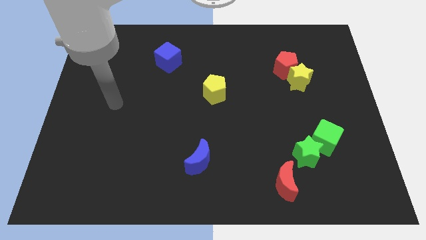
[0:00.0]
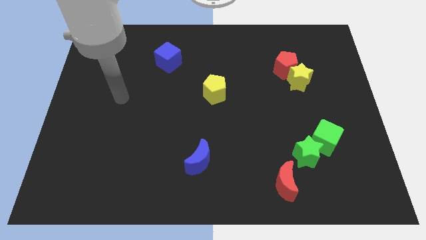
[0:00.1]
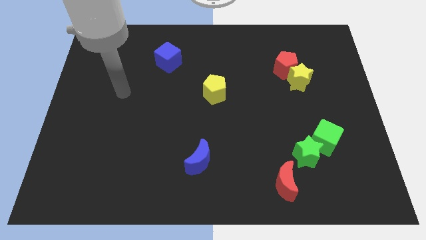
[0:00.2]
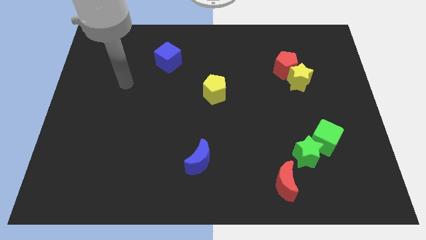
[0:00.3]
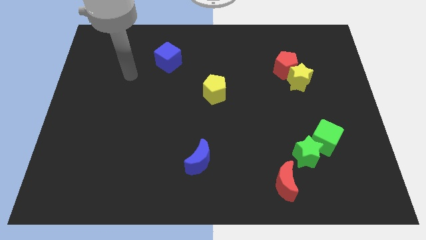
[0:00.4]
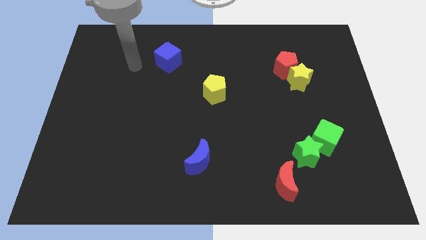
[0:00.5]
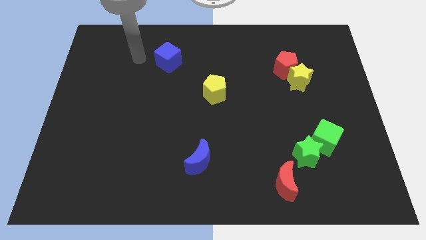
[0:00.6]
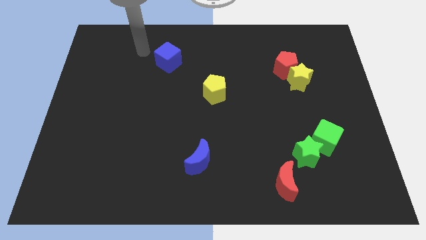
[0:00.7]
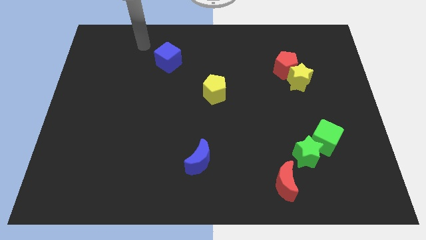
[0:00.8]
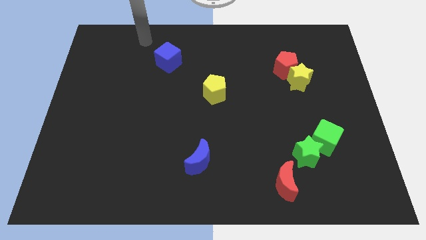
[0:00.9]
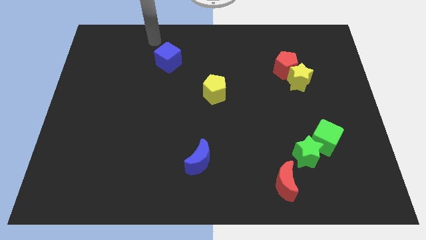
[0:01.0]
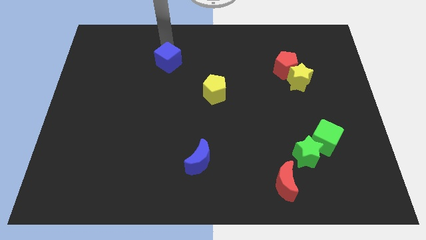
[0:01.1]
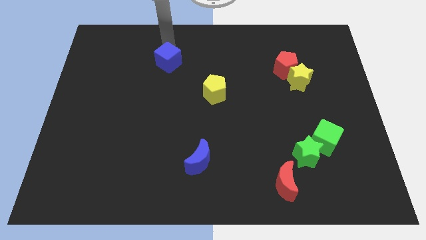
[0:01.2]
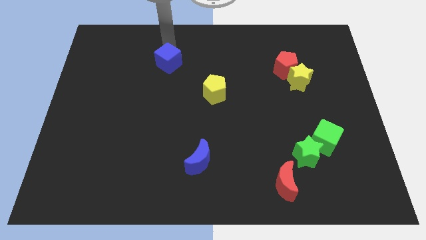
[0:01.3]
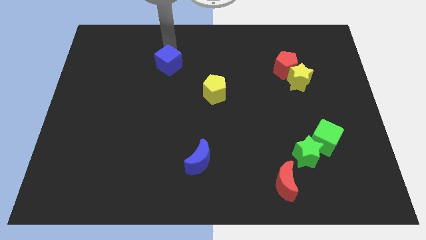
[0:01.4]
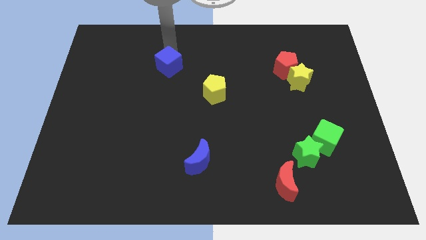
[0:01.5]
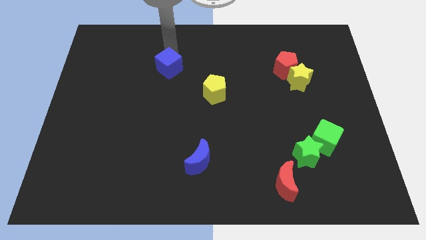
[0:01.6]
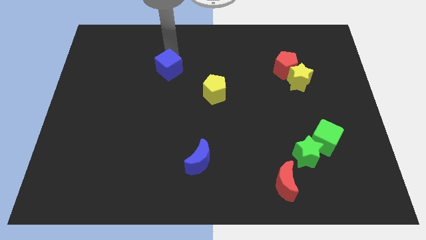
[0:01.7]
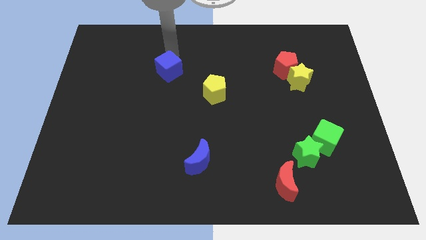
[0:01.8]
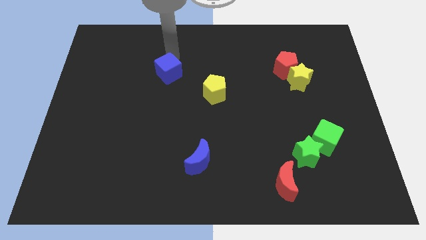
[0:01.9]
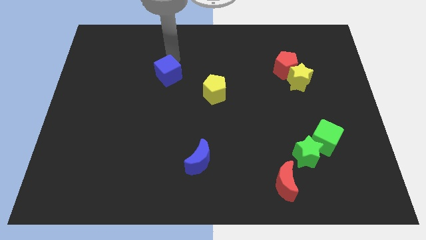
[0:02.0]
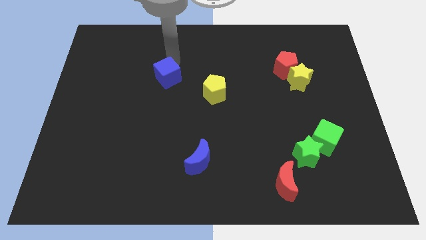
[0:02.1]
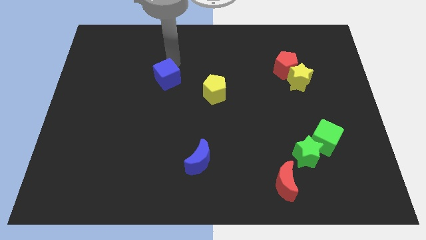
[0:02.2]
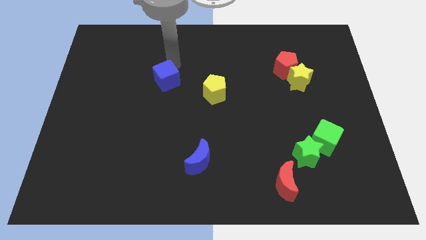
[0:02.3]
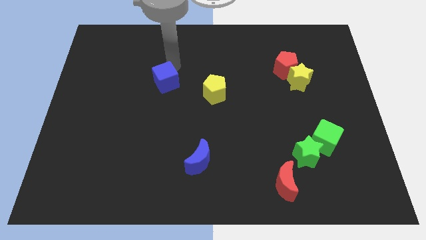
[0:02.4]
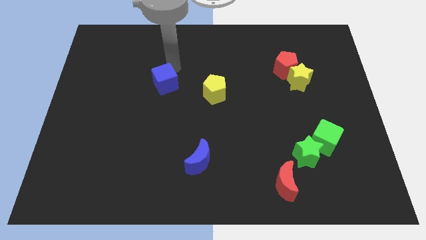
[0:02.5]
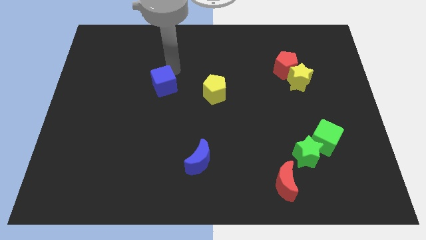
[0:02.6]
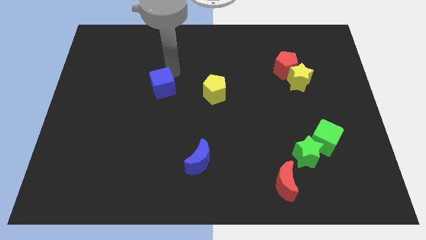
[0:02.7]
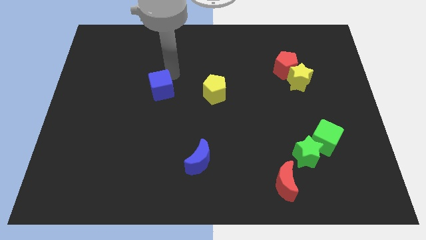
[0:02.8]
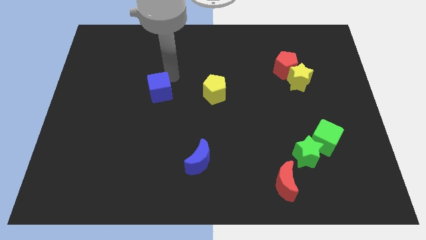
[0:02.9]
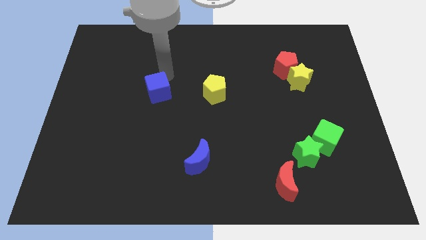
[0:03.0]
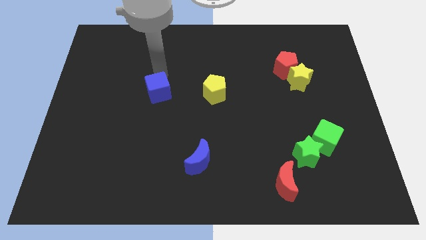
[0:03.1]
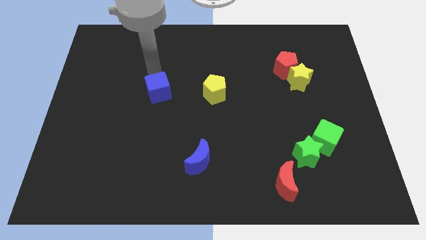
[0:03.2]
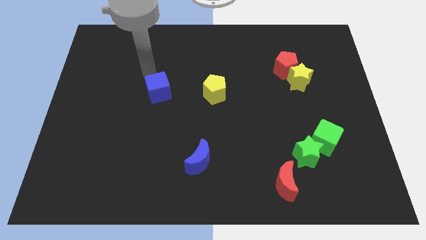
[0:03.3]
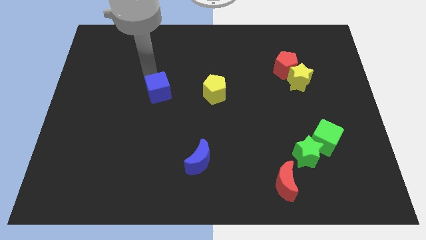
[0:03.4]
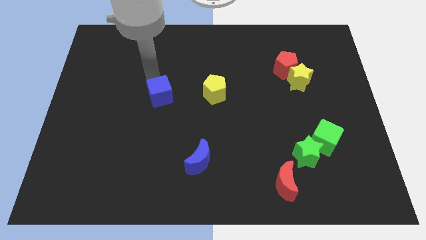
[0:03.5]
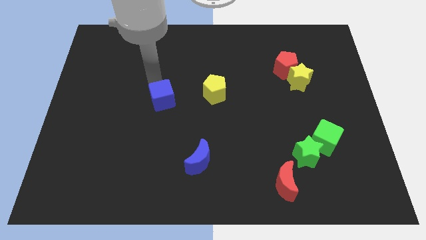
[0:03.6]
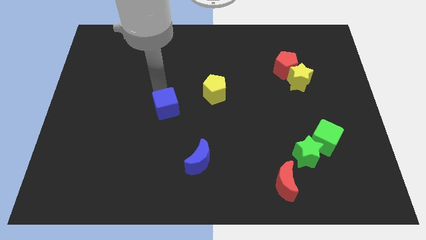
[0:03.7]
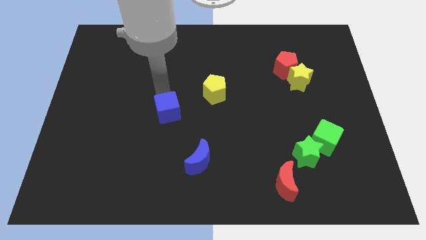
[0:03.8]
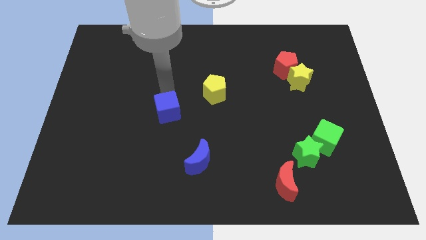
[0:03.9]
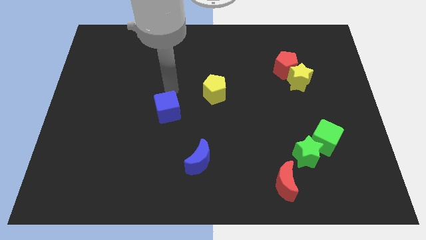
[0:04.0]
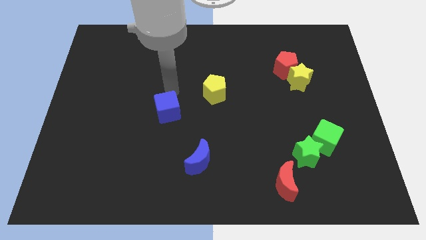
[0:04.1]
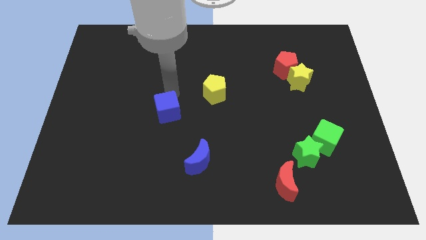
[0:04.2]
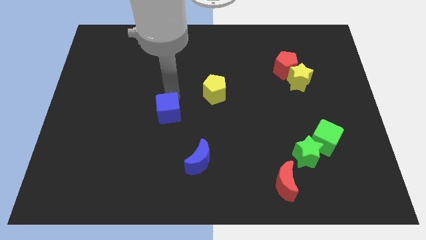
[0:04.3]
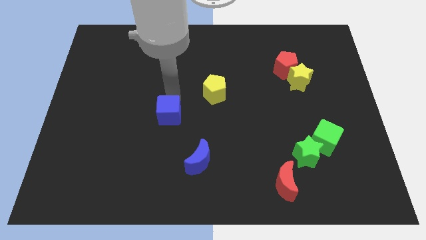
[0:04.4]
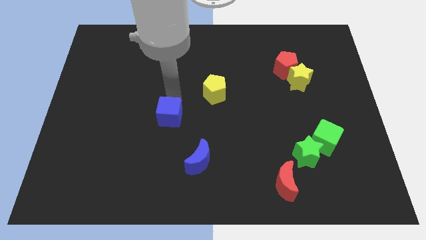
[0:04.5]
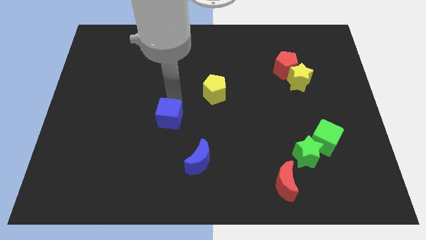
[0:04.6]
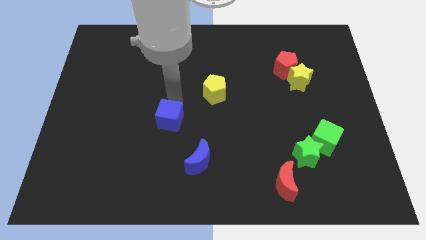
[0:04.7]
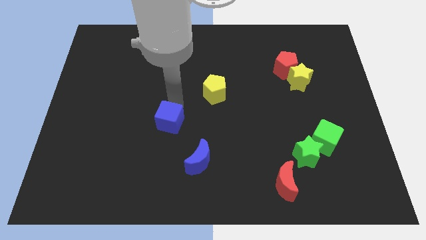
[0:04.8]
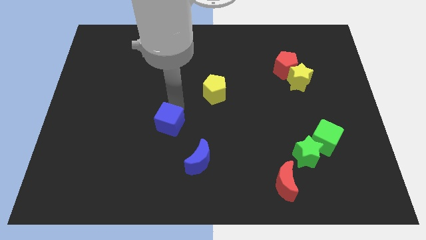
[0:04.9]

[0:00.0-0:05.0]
slide the blue cube down

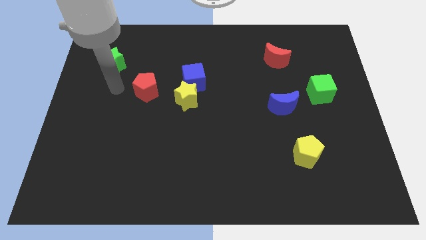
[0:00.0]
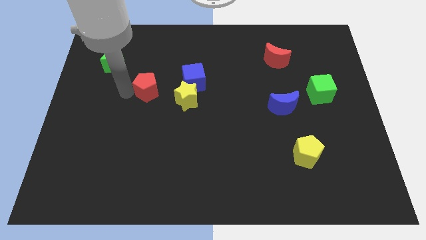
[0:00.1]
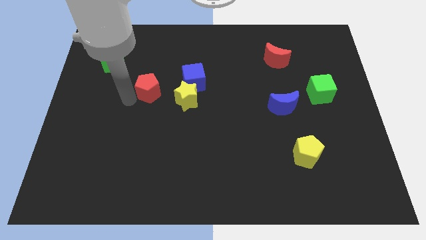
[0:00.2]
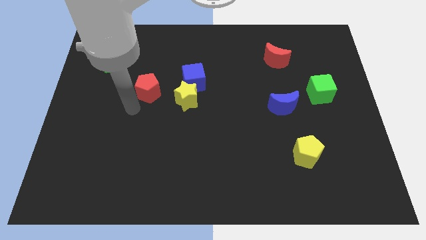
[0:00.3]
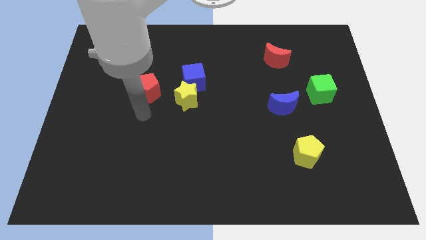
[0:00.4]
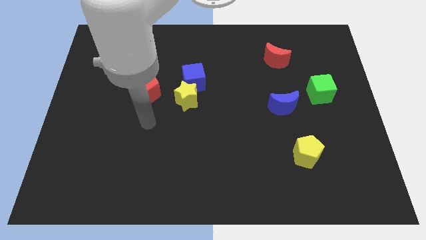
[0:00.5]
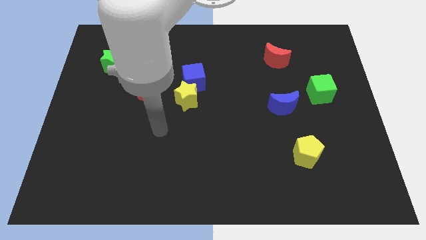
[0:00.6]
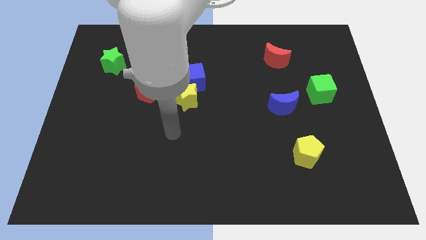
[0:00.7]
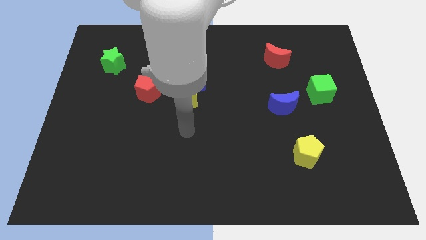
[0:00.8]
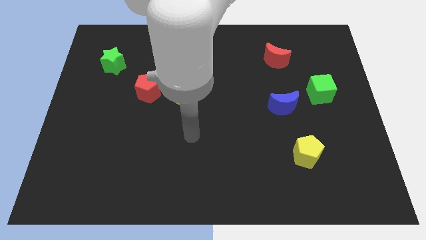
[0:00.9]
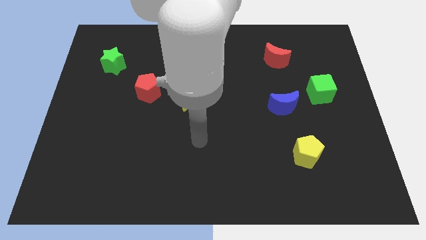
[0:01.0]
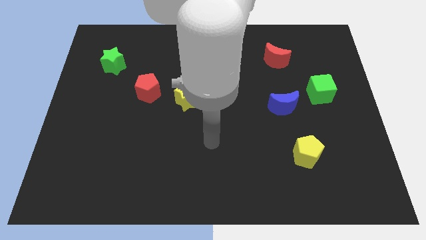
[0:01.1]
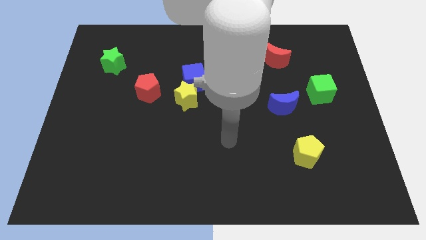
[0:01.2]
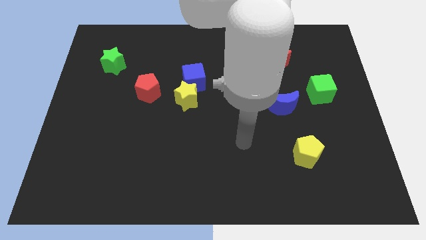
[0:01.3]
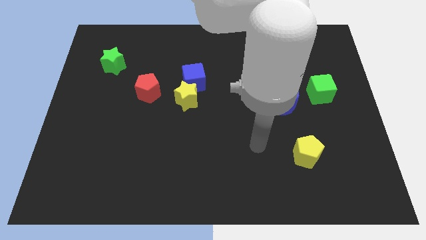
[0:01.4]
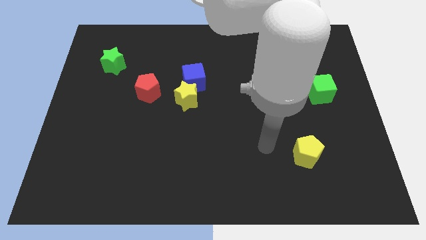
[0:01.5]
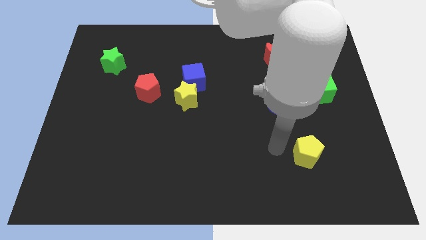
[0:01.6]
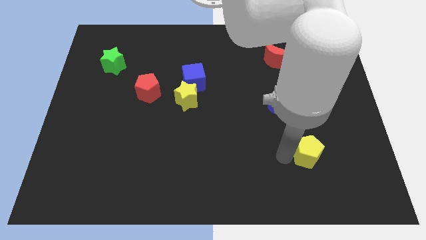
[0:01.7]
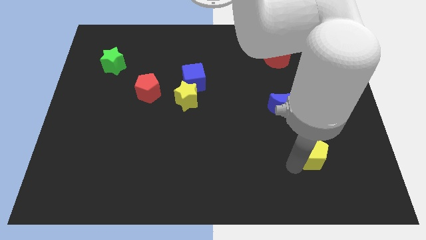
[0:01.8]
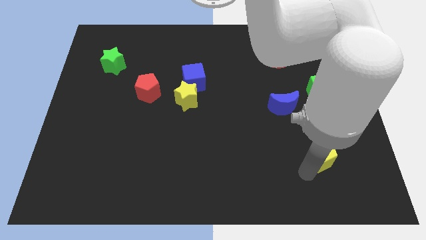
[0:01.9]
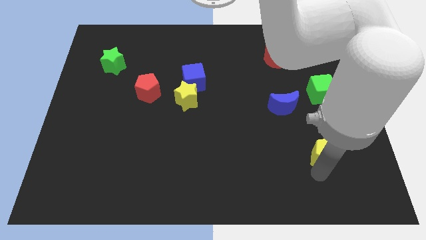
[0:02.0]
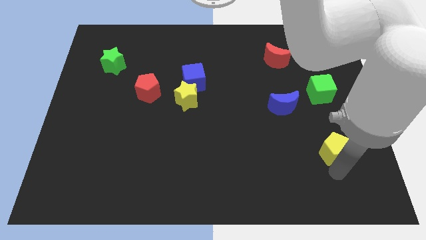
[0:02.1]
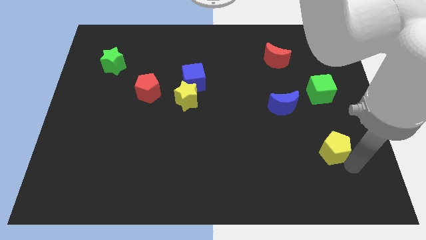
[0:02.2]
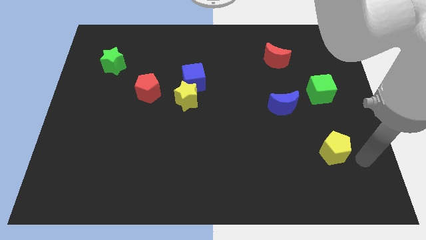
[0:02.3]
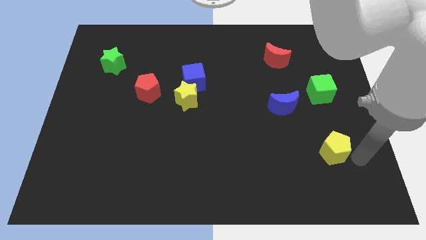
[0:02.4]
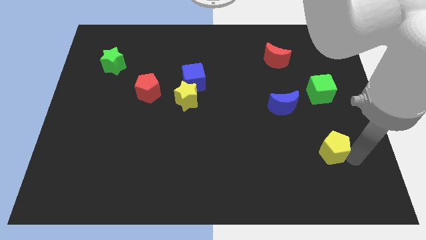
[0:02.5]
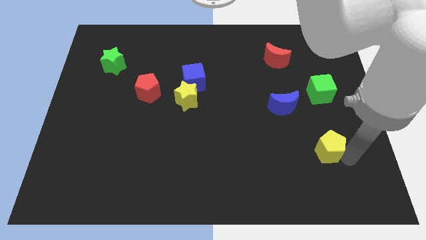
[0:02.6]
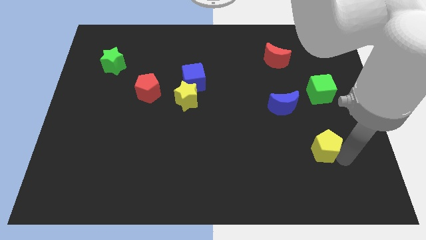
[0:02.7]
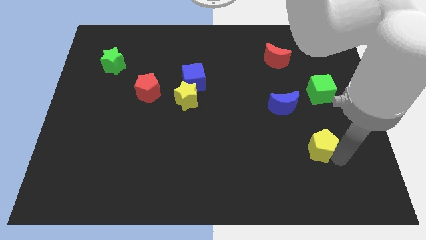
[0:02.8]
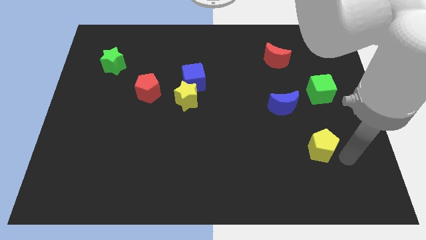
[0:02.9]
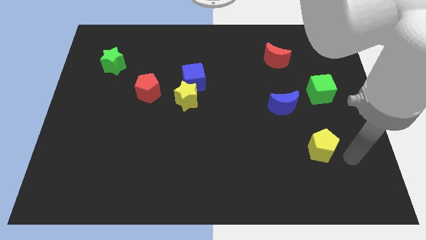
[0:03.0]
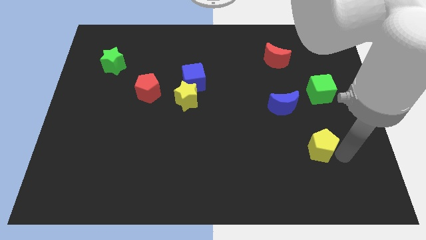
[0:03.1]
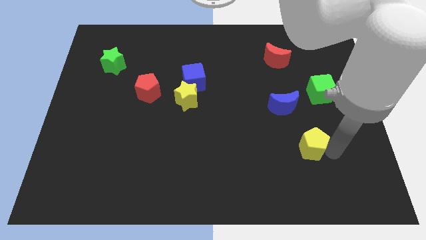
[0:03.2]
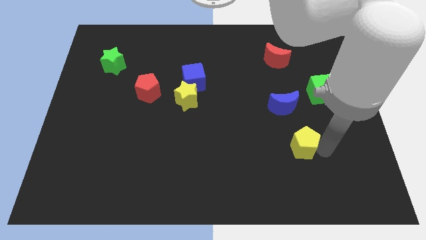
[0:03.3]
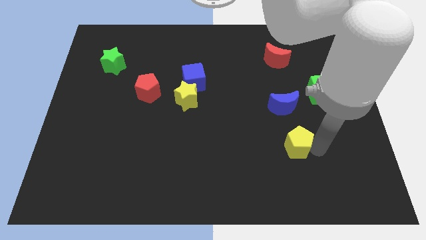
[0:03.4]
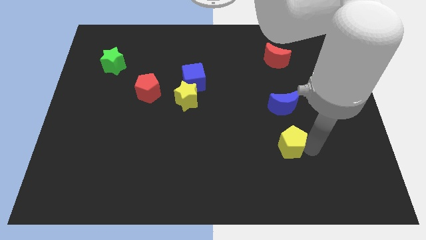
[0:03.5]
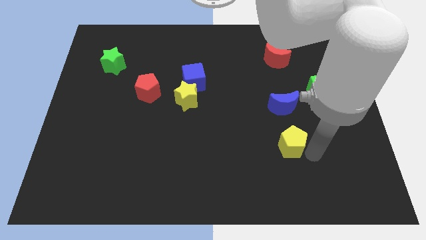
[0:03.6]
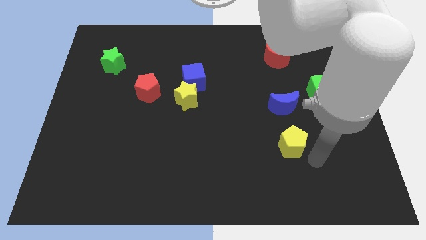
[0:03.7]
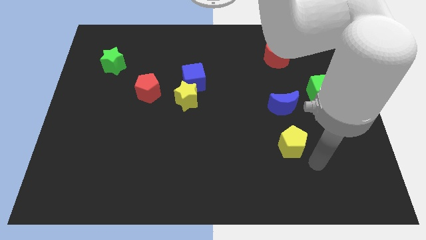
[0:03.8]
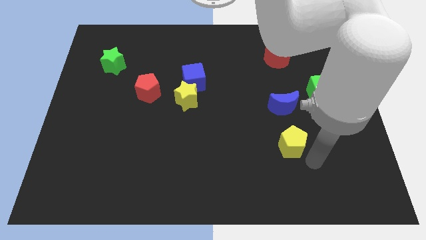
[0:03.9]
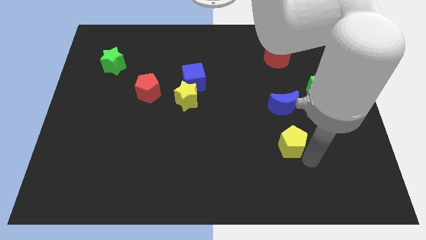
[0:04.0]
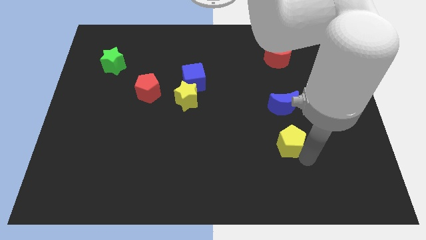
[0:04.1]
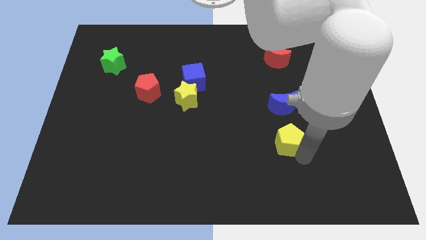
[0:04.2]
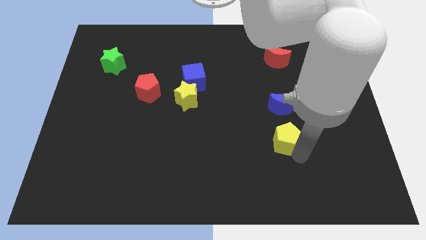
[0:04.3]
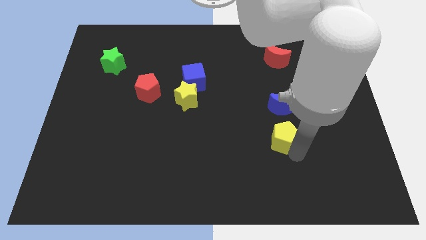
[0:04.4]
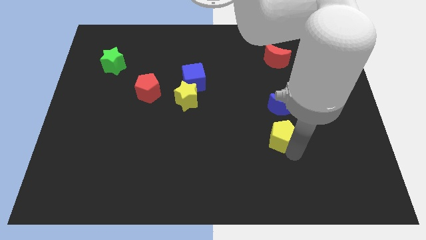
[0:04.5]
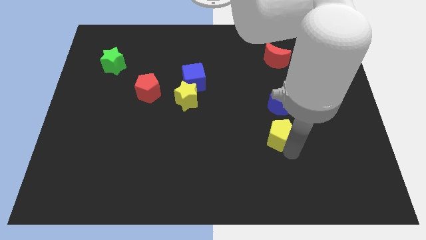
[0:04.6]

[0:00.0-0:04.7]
slide the yellow pentagon a little upwards and then left
